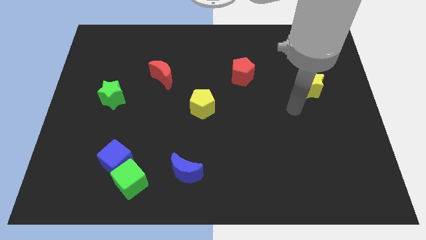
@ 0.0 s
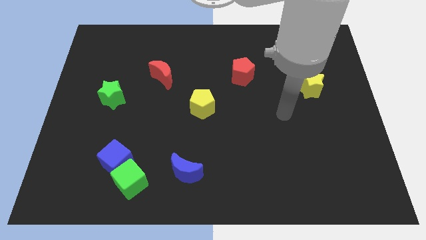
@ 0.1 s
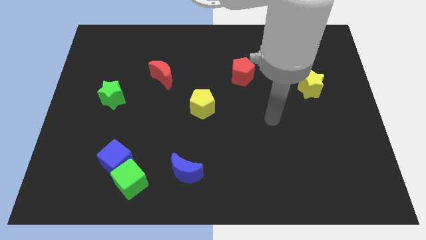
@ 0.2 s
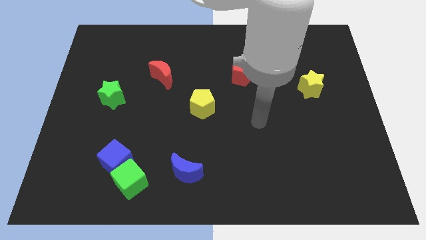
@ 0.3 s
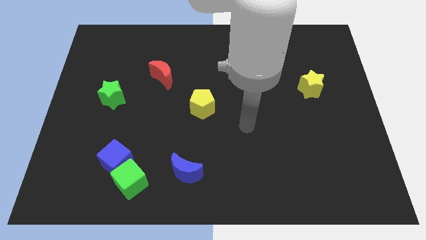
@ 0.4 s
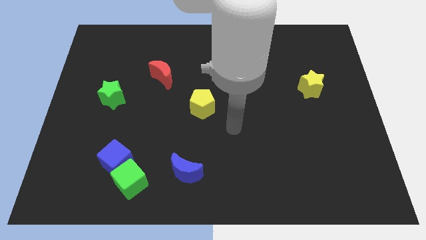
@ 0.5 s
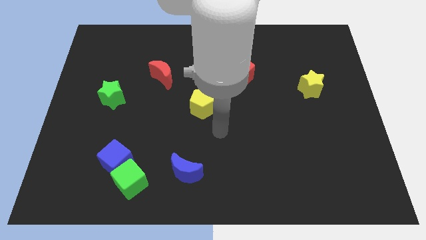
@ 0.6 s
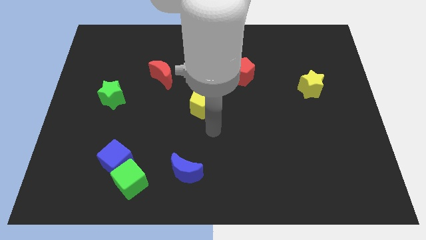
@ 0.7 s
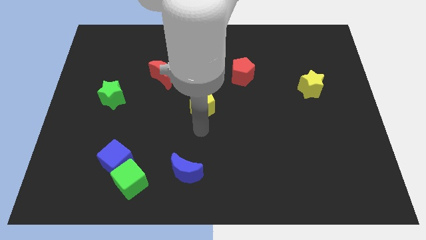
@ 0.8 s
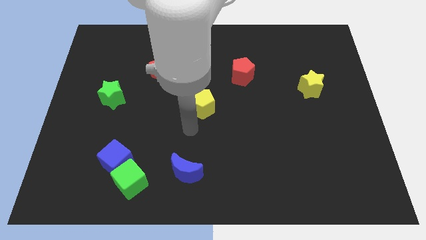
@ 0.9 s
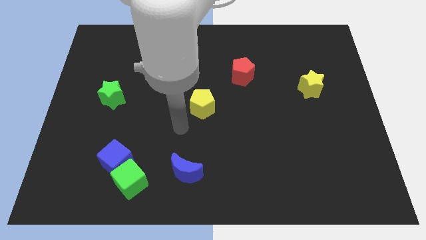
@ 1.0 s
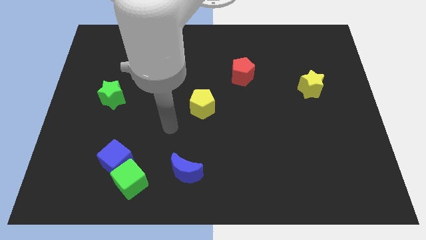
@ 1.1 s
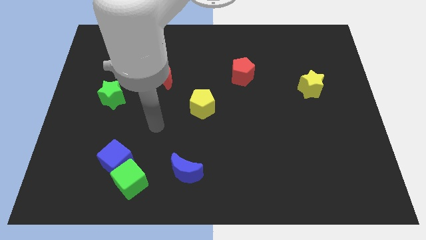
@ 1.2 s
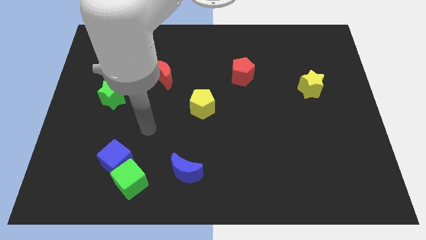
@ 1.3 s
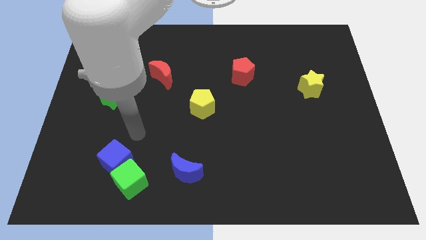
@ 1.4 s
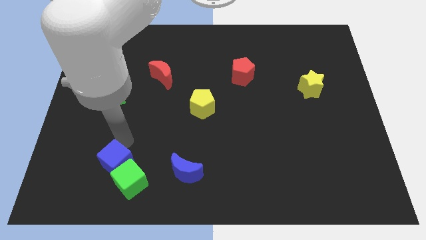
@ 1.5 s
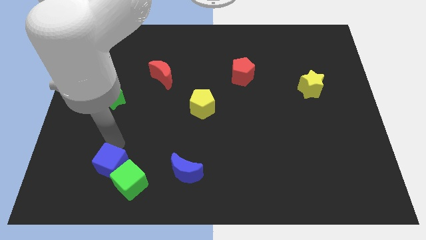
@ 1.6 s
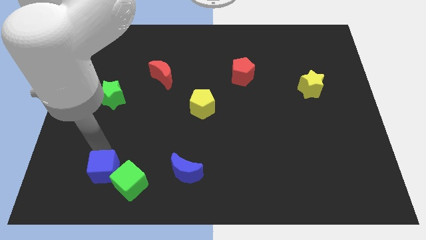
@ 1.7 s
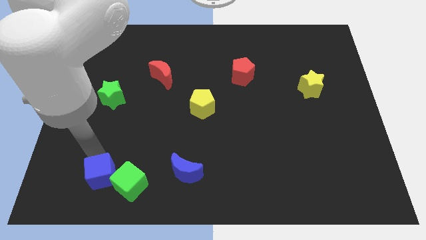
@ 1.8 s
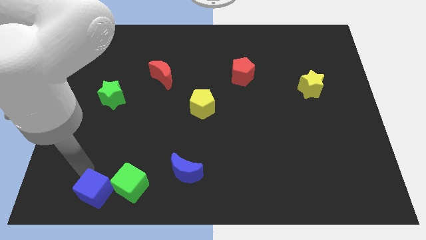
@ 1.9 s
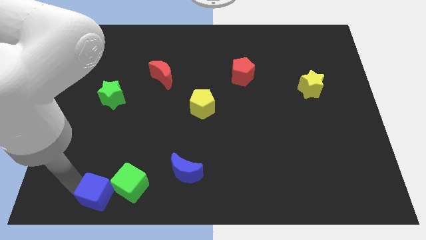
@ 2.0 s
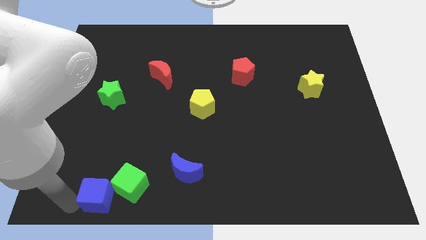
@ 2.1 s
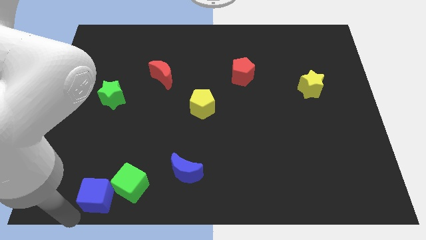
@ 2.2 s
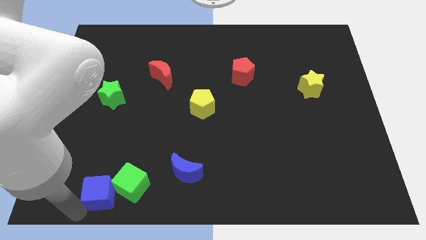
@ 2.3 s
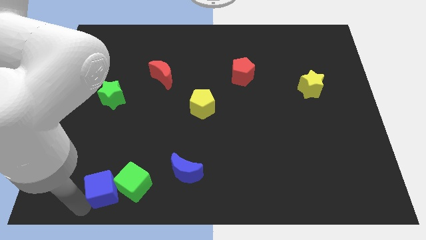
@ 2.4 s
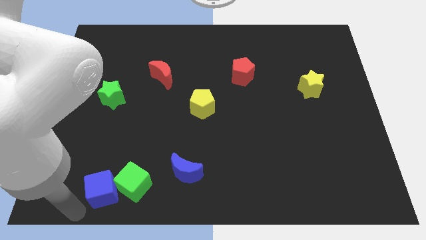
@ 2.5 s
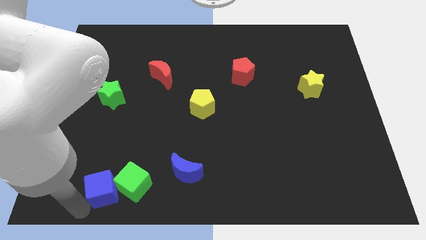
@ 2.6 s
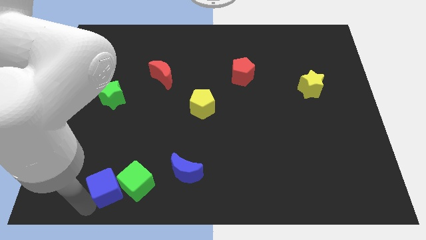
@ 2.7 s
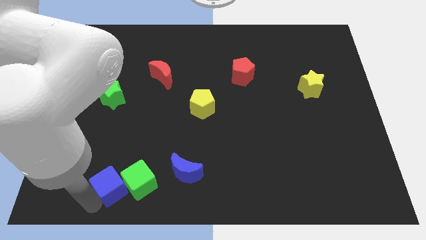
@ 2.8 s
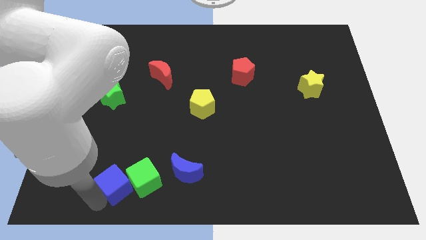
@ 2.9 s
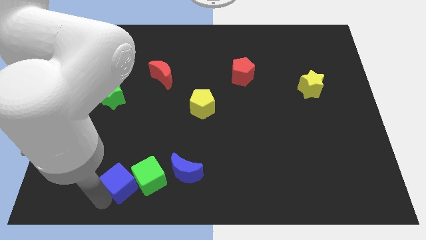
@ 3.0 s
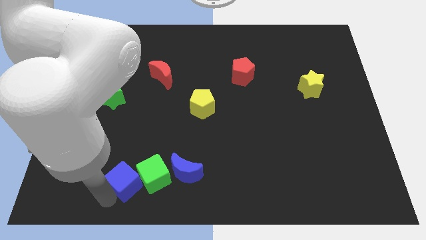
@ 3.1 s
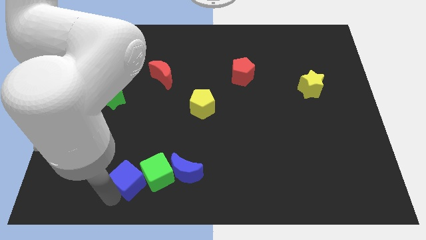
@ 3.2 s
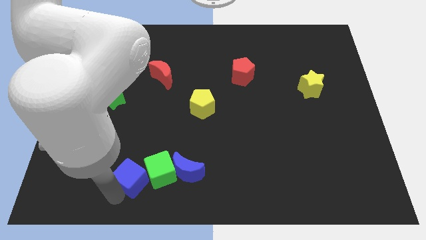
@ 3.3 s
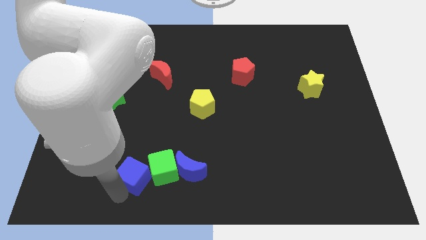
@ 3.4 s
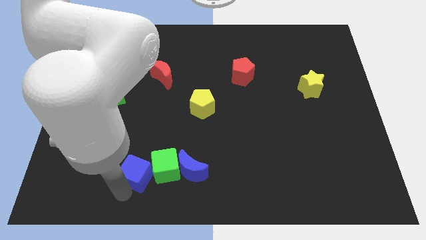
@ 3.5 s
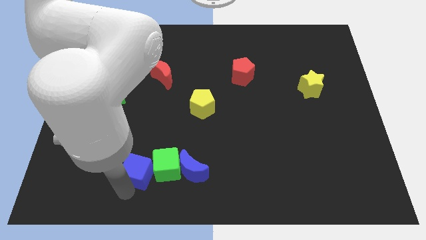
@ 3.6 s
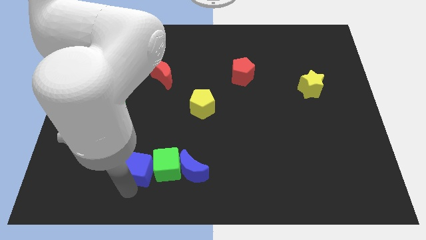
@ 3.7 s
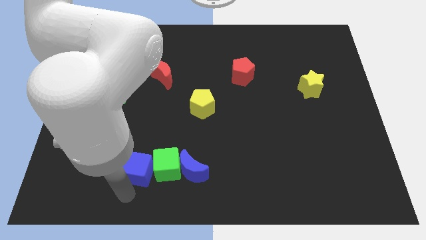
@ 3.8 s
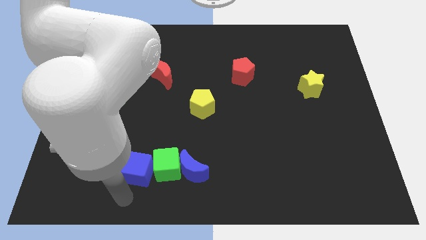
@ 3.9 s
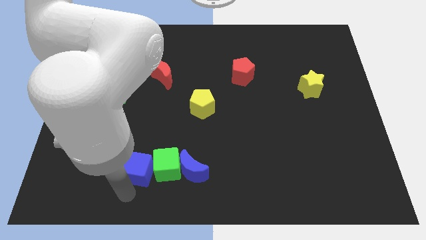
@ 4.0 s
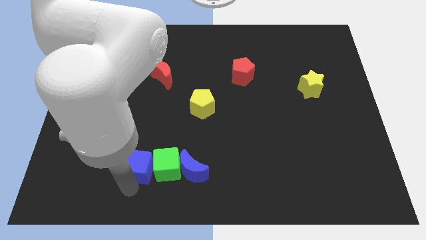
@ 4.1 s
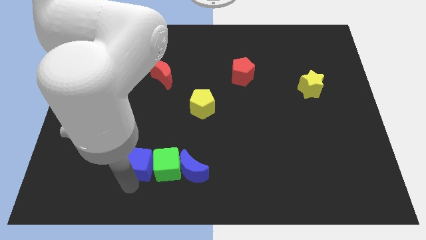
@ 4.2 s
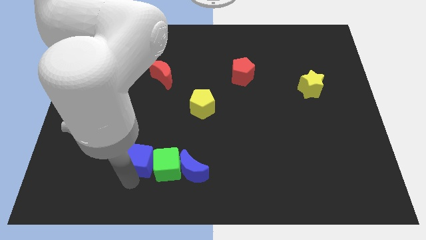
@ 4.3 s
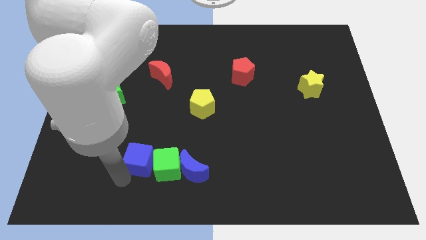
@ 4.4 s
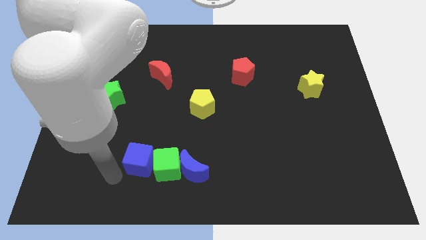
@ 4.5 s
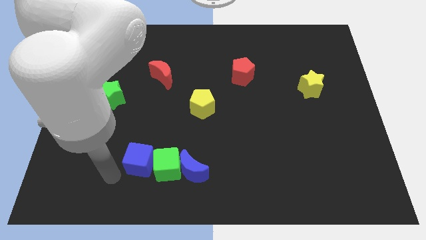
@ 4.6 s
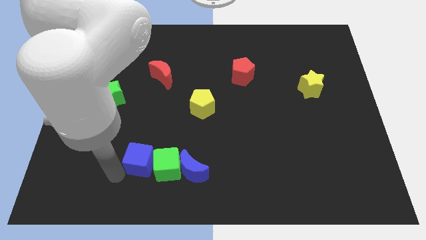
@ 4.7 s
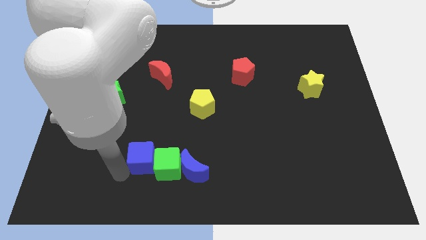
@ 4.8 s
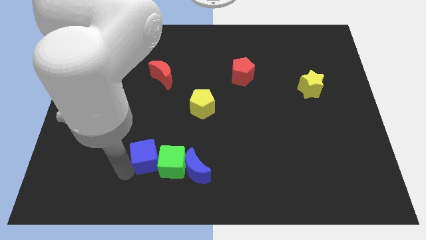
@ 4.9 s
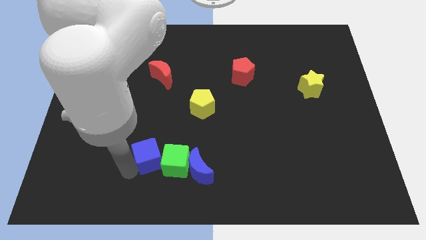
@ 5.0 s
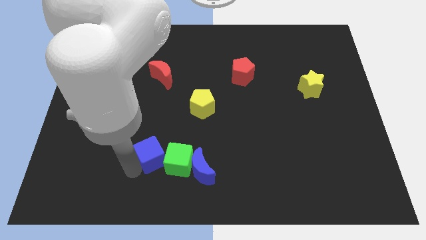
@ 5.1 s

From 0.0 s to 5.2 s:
move the blue cube a little bit to the right

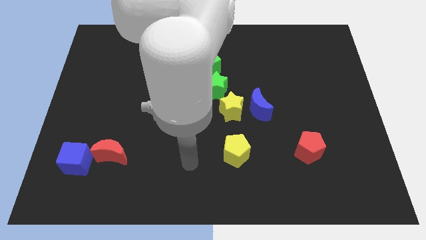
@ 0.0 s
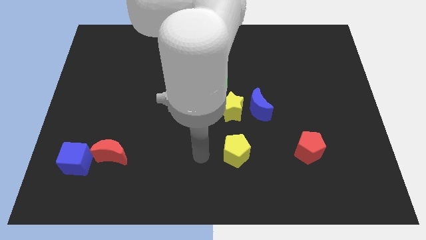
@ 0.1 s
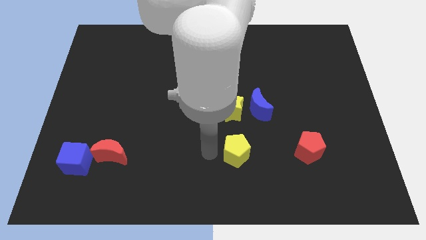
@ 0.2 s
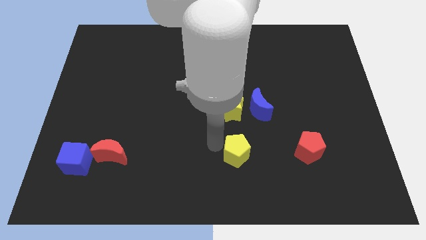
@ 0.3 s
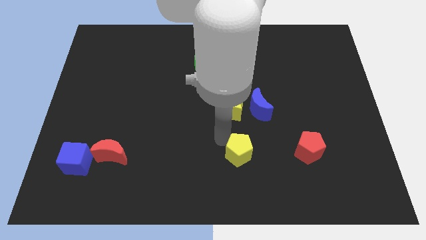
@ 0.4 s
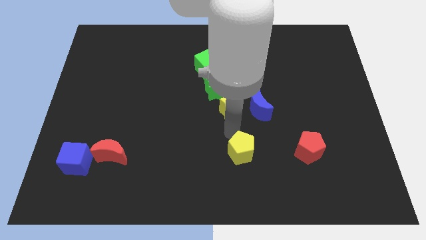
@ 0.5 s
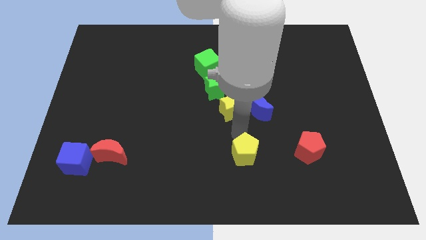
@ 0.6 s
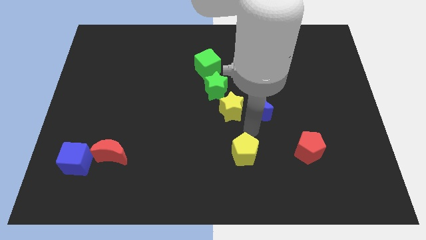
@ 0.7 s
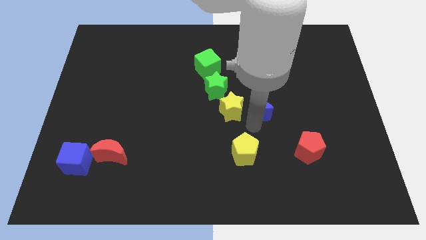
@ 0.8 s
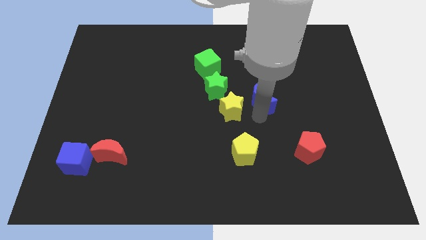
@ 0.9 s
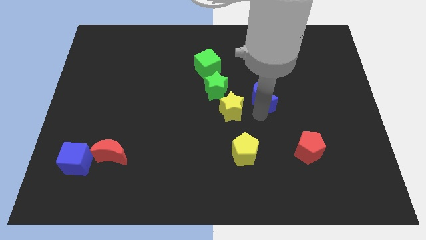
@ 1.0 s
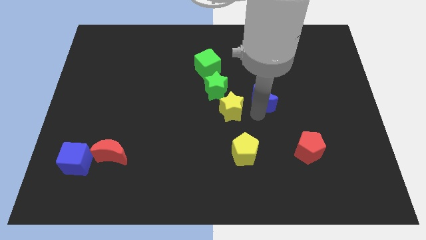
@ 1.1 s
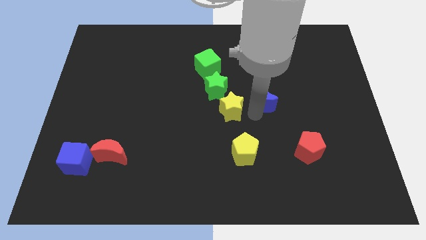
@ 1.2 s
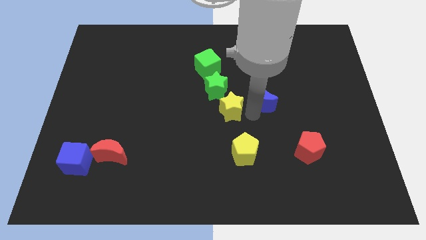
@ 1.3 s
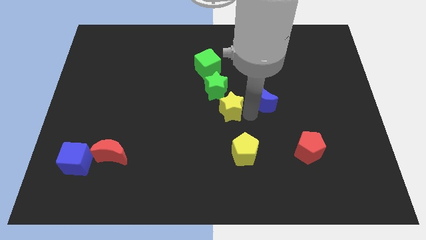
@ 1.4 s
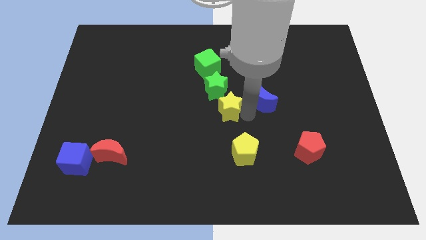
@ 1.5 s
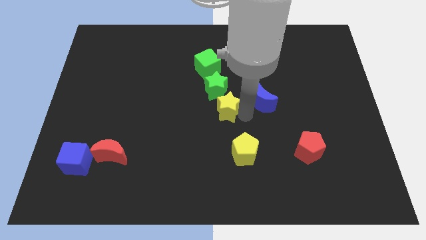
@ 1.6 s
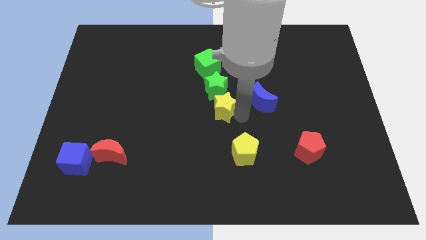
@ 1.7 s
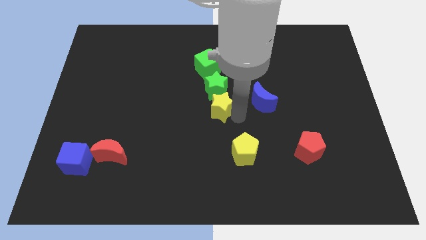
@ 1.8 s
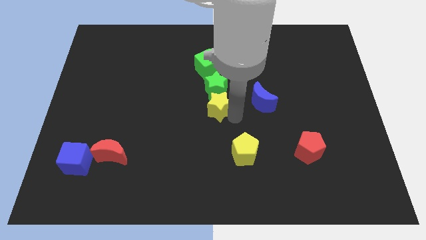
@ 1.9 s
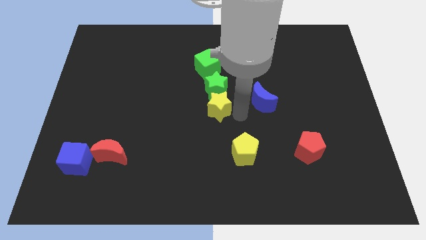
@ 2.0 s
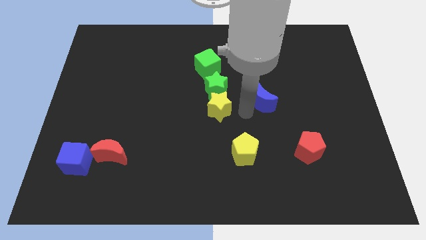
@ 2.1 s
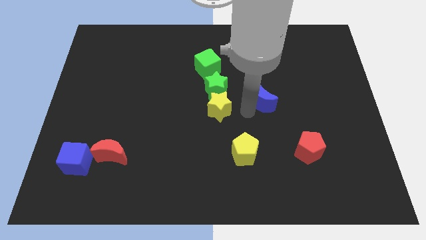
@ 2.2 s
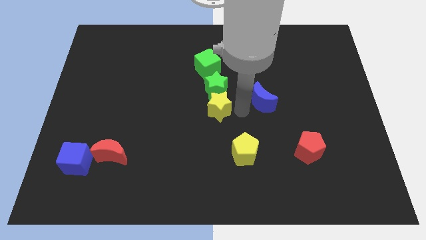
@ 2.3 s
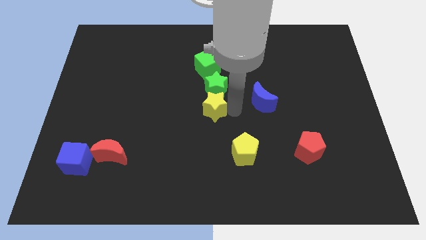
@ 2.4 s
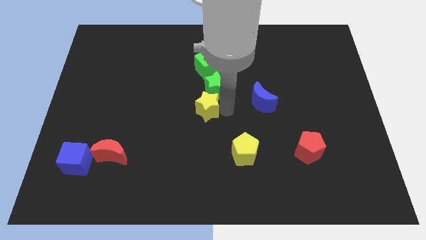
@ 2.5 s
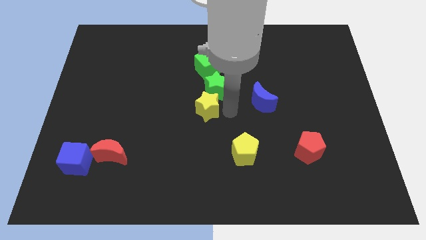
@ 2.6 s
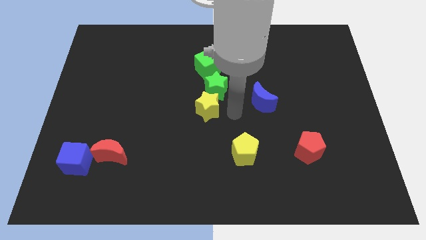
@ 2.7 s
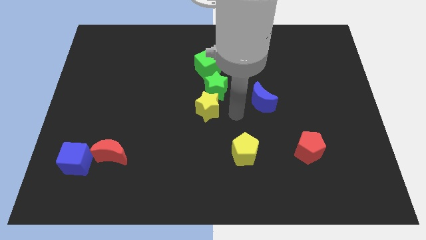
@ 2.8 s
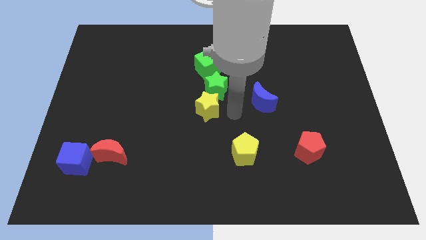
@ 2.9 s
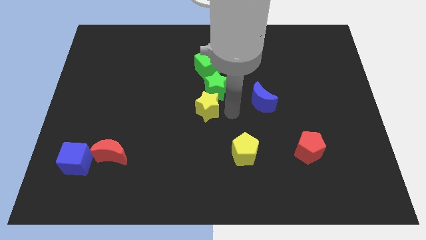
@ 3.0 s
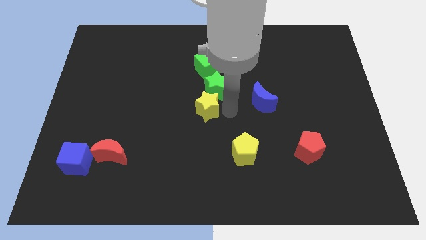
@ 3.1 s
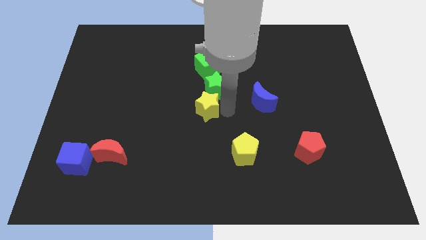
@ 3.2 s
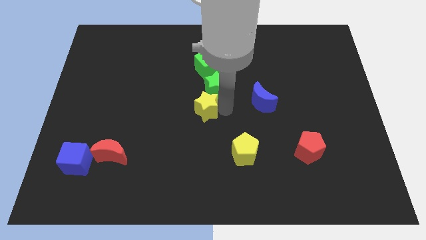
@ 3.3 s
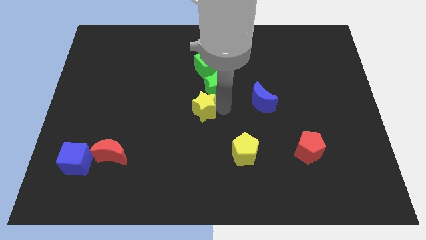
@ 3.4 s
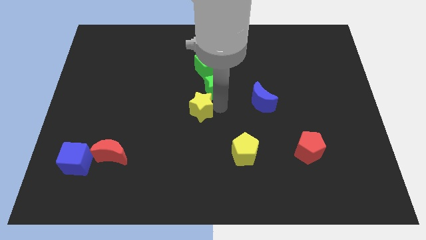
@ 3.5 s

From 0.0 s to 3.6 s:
slightly slide the yellow star to the left
